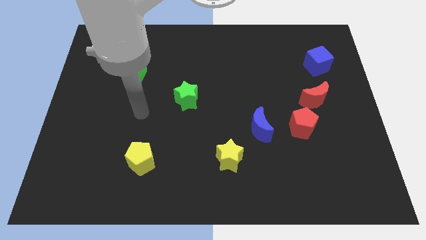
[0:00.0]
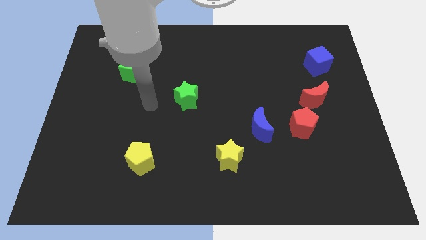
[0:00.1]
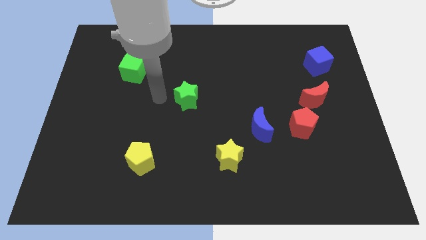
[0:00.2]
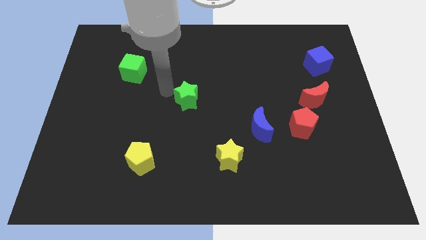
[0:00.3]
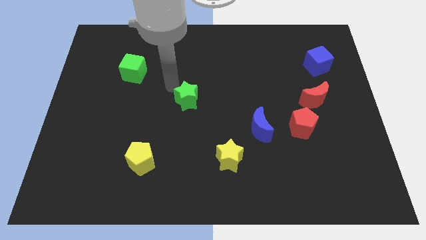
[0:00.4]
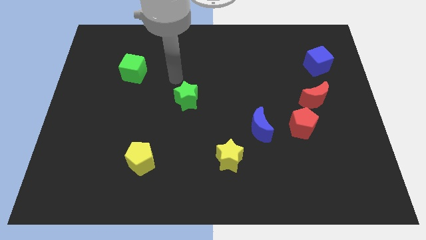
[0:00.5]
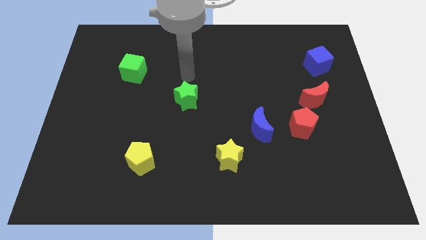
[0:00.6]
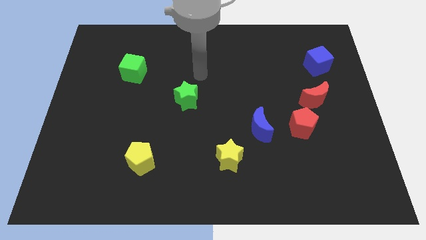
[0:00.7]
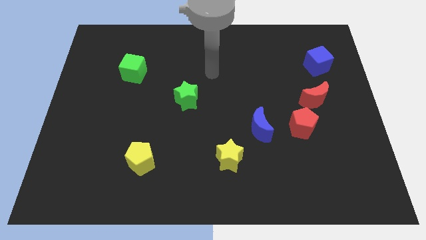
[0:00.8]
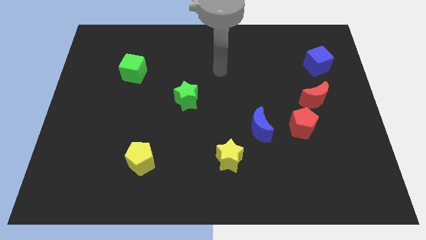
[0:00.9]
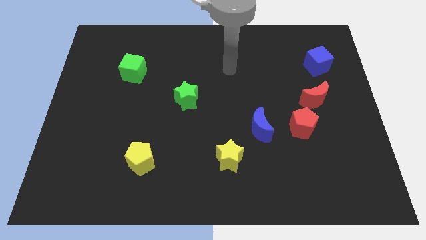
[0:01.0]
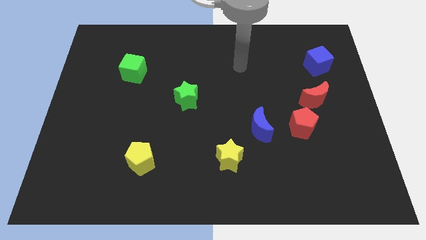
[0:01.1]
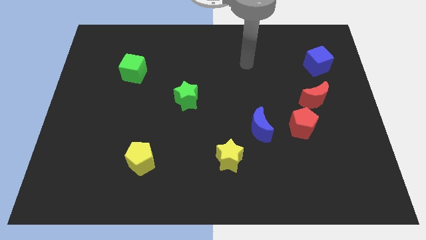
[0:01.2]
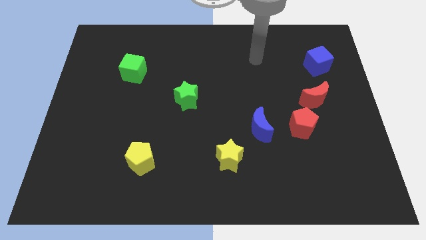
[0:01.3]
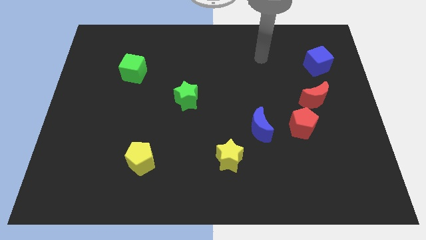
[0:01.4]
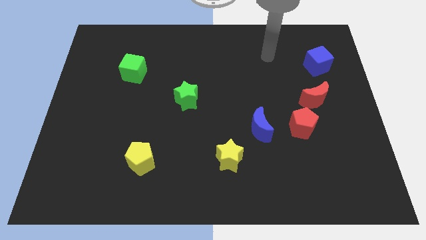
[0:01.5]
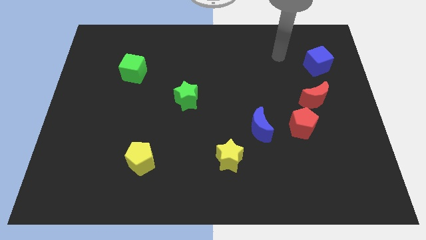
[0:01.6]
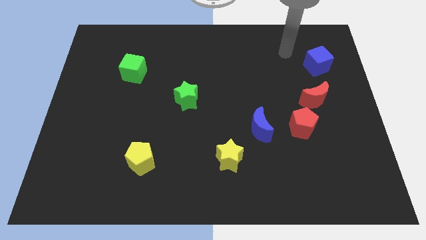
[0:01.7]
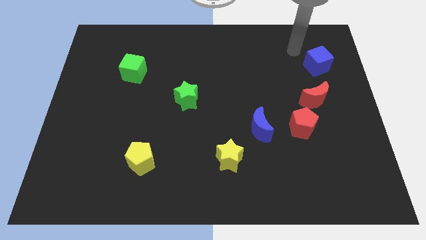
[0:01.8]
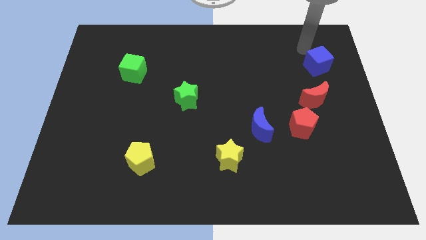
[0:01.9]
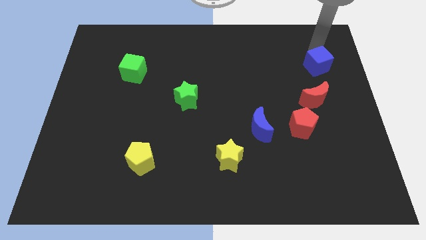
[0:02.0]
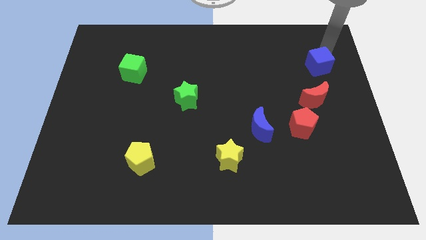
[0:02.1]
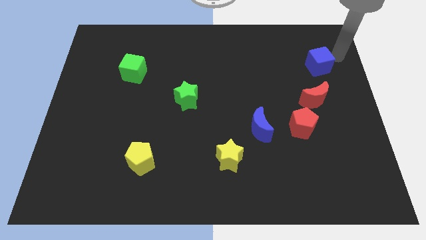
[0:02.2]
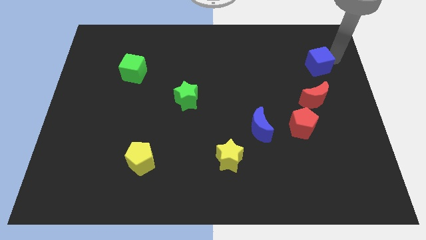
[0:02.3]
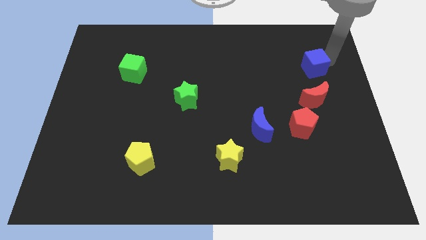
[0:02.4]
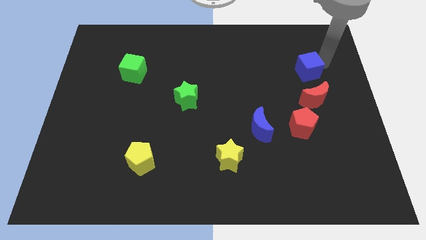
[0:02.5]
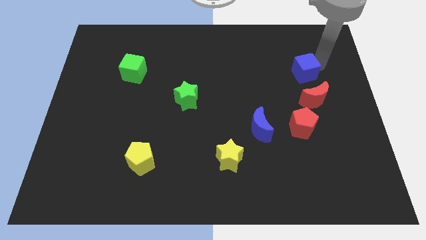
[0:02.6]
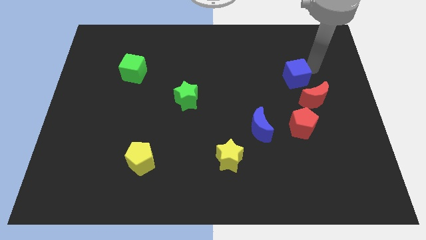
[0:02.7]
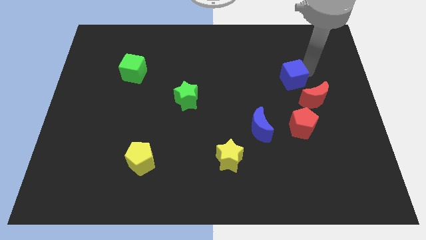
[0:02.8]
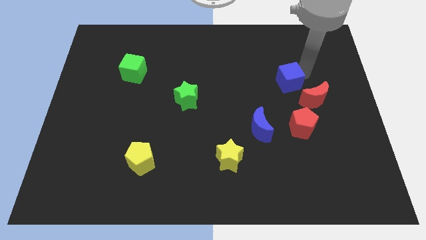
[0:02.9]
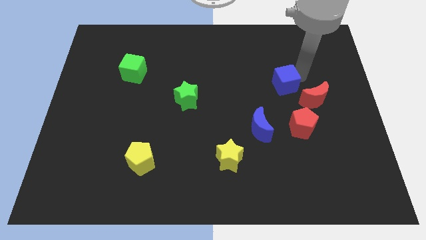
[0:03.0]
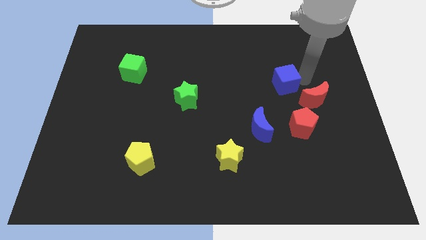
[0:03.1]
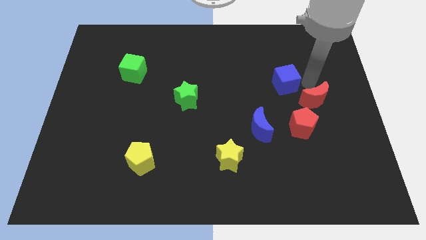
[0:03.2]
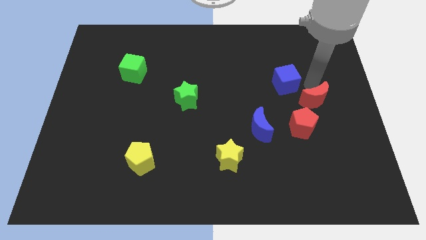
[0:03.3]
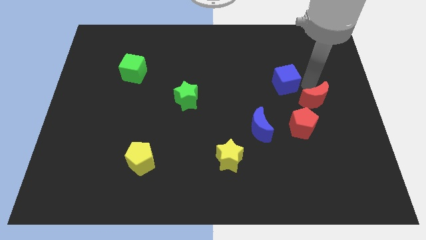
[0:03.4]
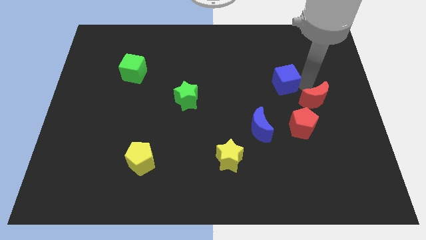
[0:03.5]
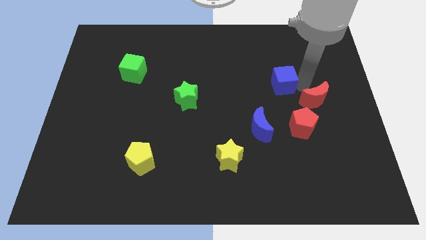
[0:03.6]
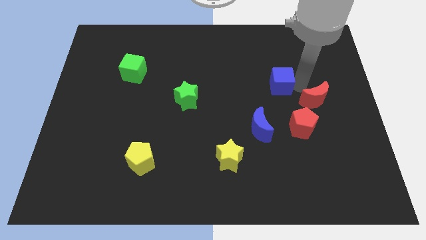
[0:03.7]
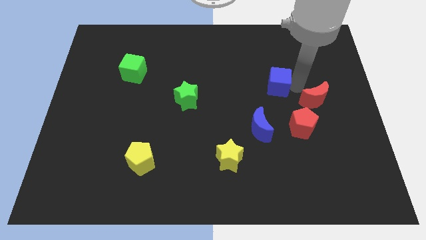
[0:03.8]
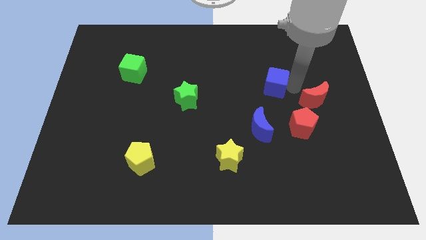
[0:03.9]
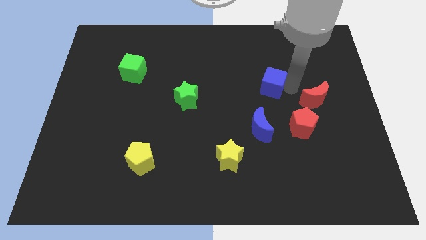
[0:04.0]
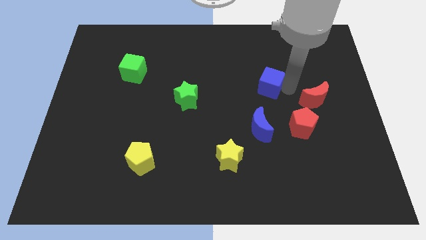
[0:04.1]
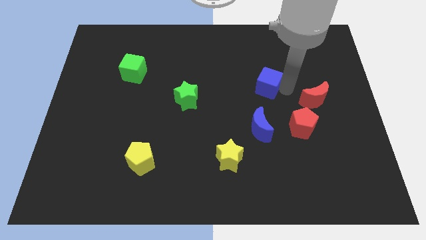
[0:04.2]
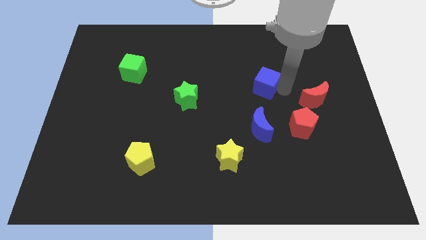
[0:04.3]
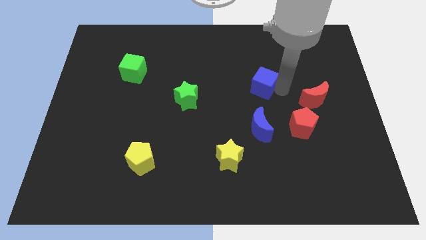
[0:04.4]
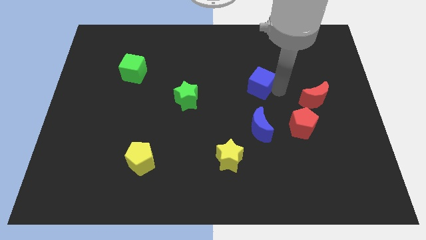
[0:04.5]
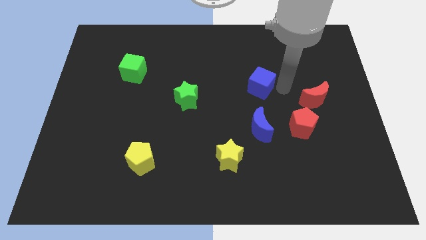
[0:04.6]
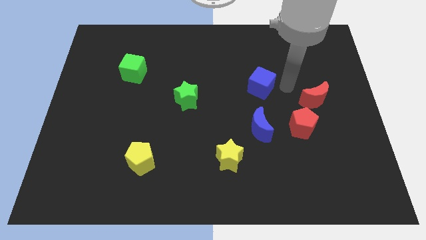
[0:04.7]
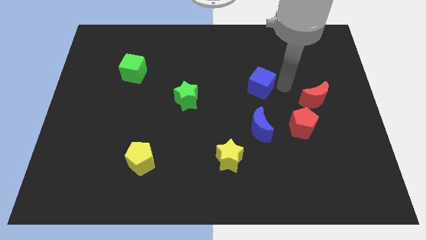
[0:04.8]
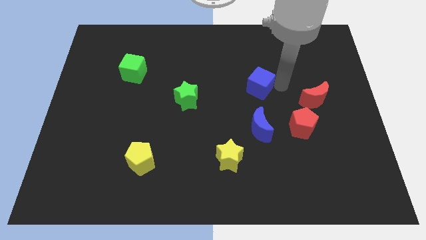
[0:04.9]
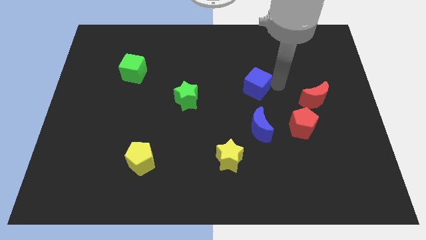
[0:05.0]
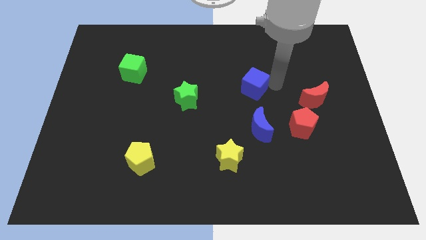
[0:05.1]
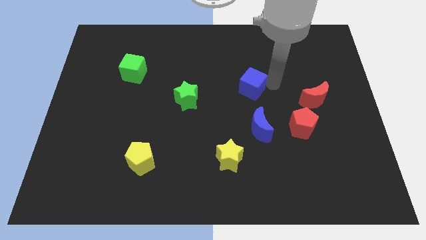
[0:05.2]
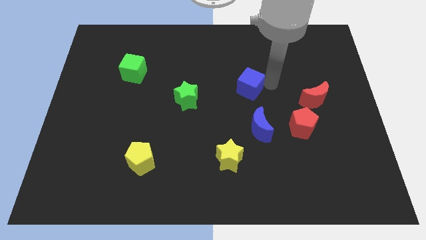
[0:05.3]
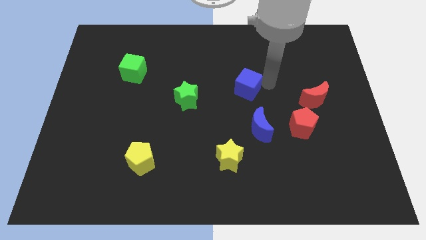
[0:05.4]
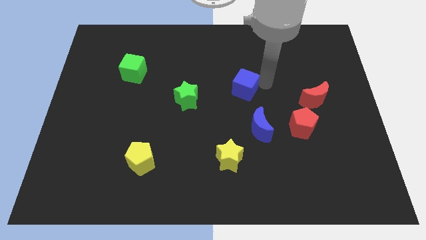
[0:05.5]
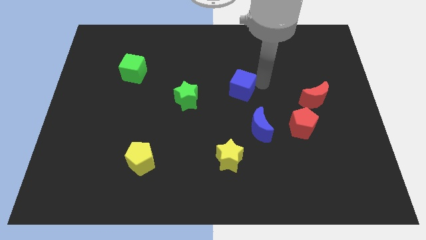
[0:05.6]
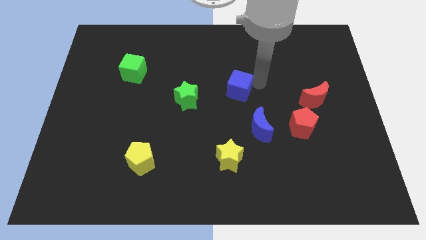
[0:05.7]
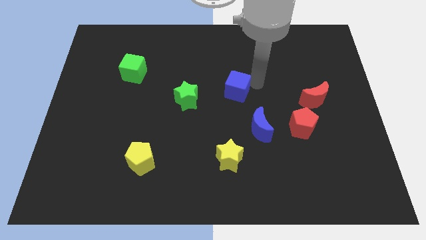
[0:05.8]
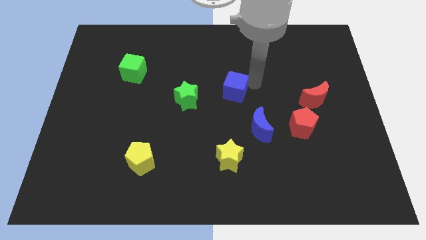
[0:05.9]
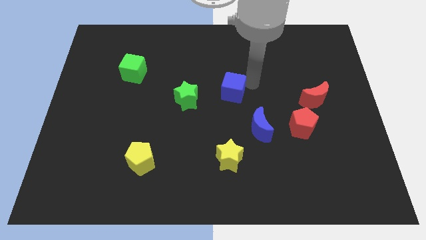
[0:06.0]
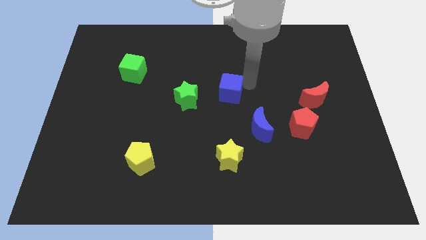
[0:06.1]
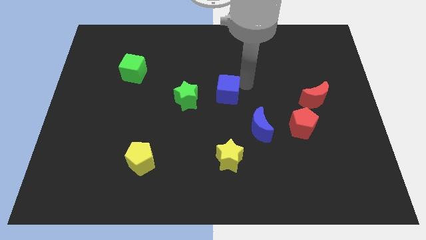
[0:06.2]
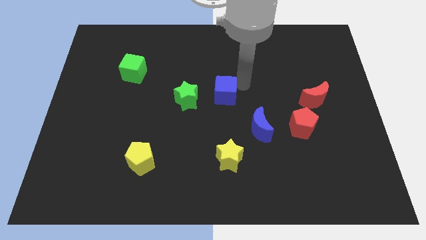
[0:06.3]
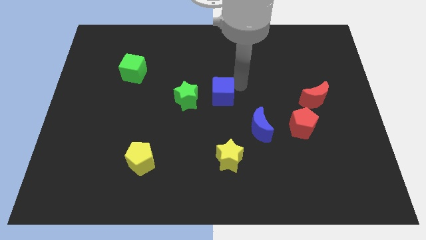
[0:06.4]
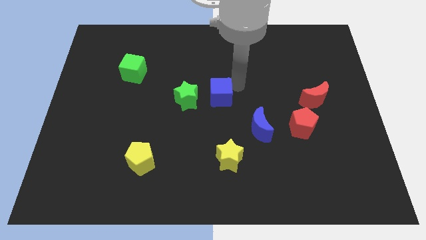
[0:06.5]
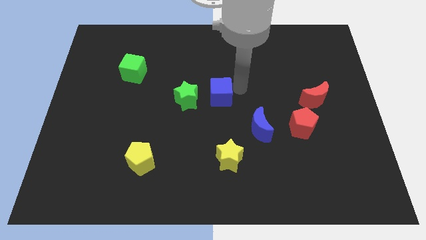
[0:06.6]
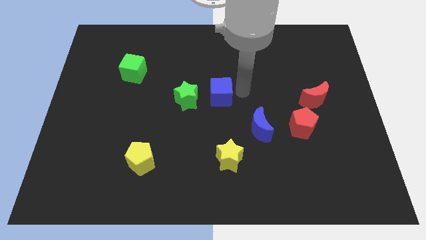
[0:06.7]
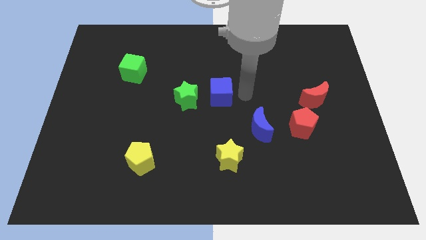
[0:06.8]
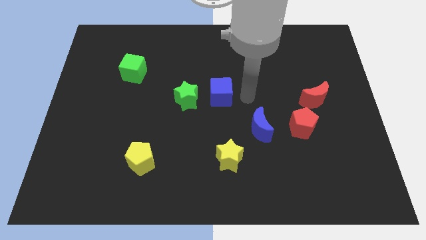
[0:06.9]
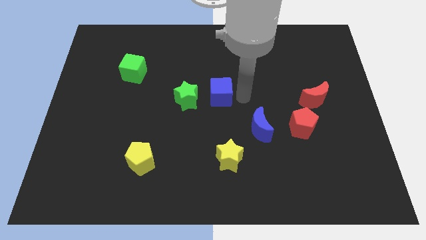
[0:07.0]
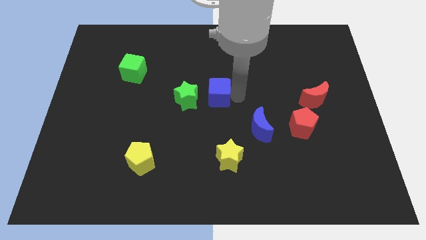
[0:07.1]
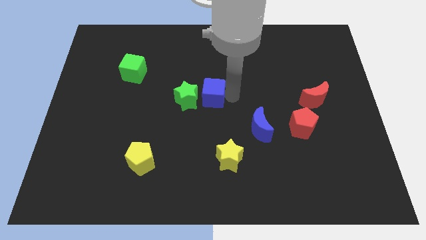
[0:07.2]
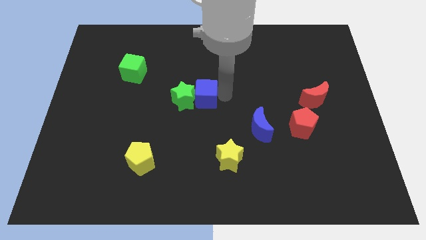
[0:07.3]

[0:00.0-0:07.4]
push the blue cube close to the green star
